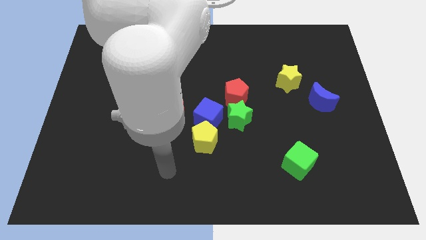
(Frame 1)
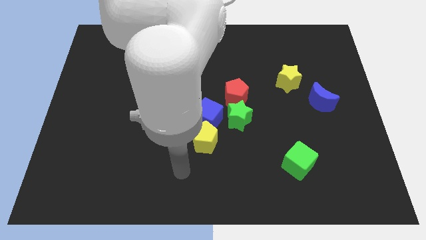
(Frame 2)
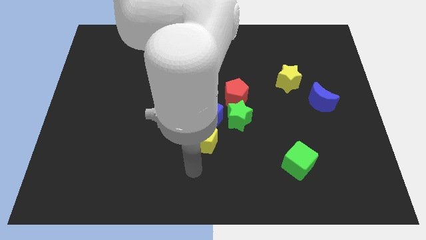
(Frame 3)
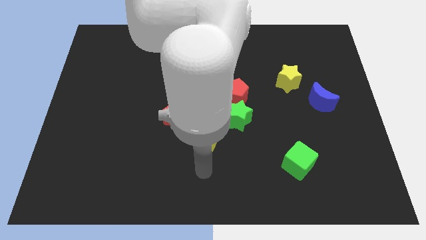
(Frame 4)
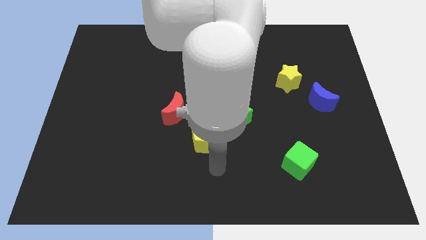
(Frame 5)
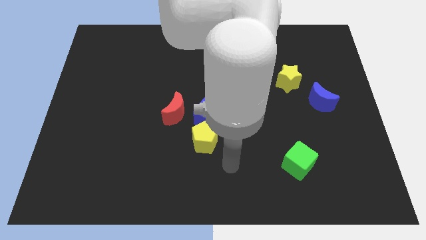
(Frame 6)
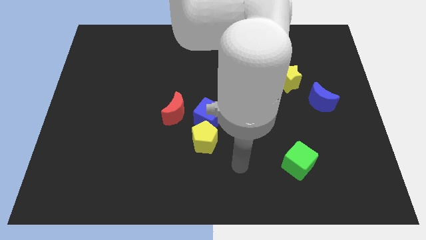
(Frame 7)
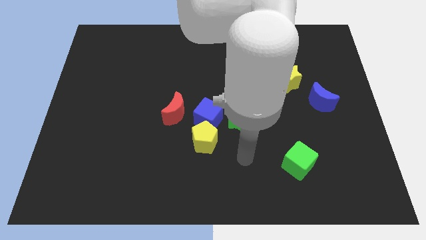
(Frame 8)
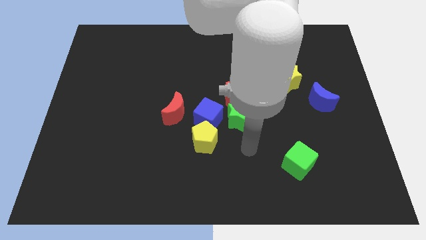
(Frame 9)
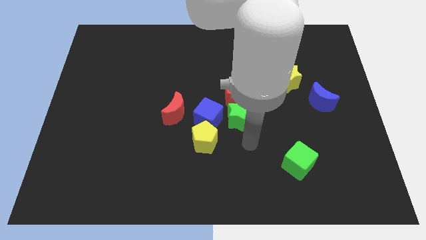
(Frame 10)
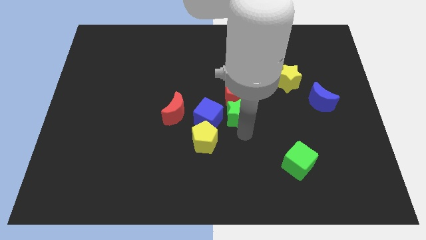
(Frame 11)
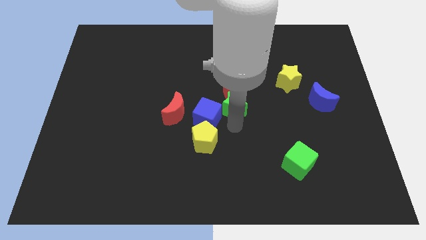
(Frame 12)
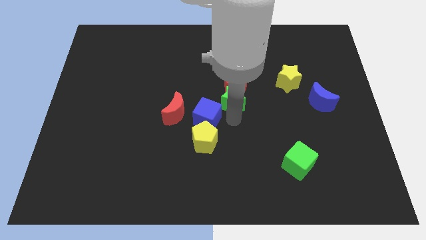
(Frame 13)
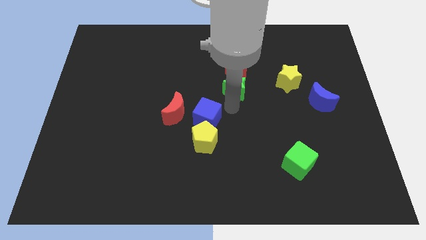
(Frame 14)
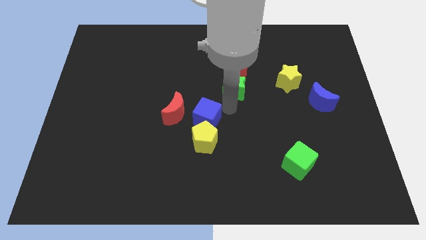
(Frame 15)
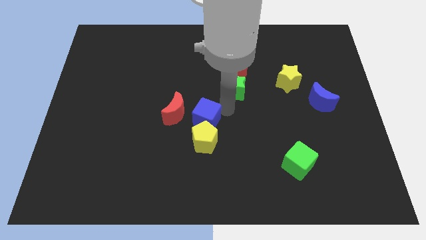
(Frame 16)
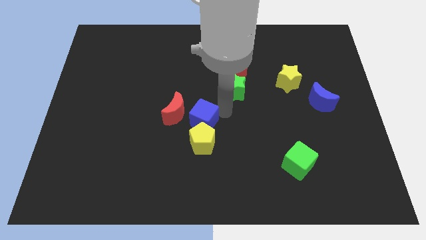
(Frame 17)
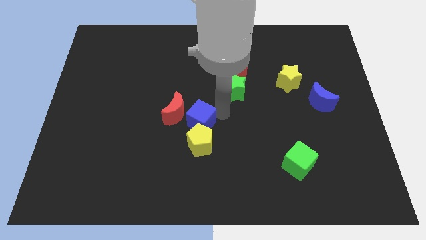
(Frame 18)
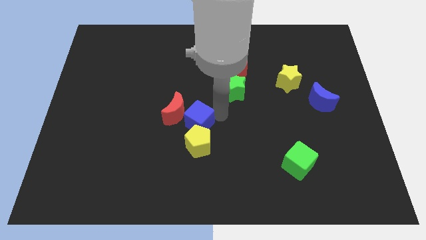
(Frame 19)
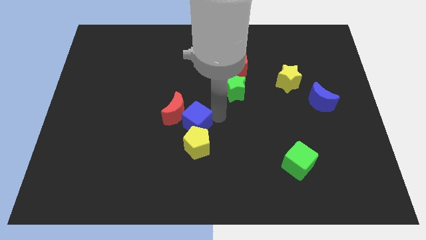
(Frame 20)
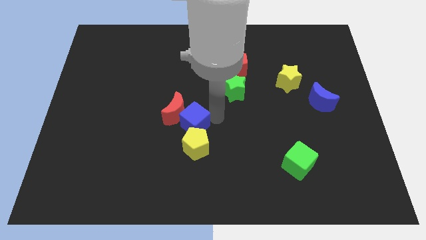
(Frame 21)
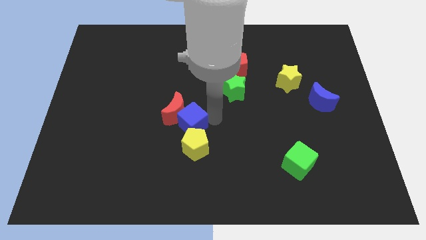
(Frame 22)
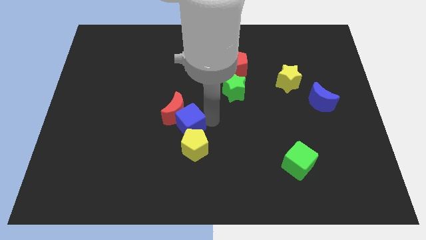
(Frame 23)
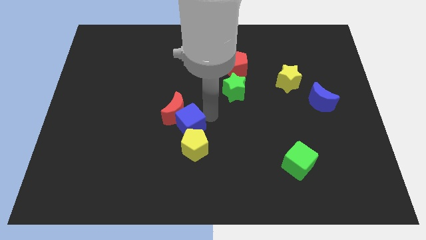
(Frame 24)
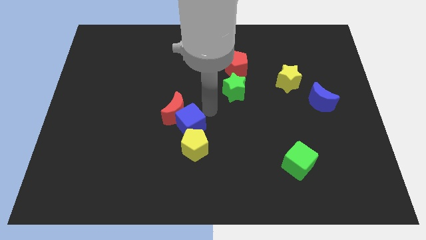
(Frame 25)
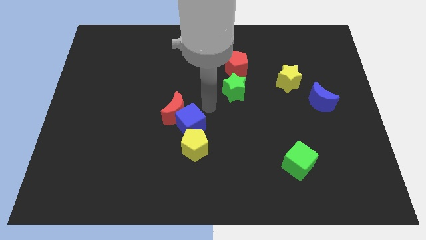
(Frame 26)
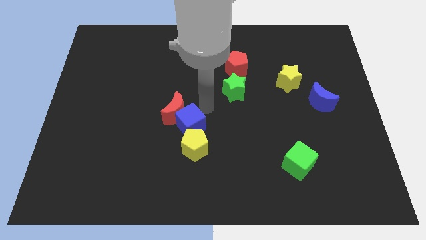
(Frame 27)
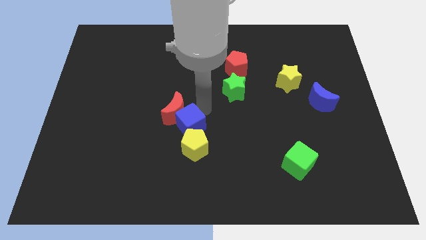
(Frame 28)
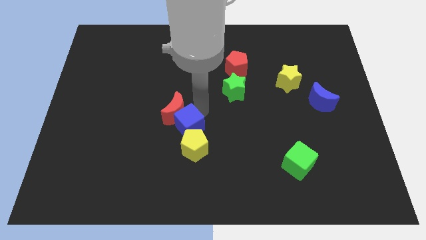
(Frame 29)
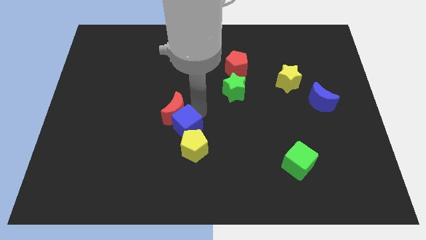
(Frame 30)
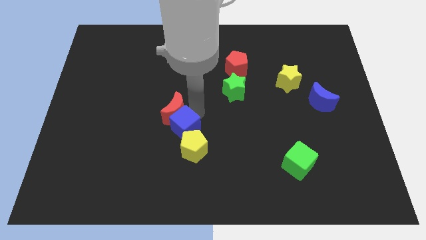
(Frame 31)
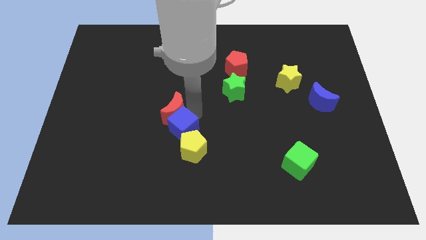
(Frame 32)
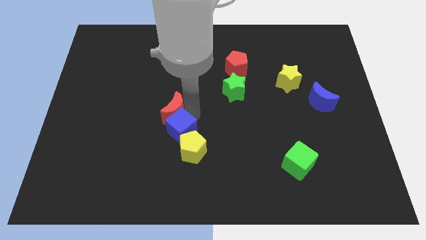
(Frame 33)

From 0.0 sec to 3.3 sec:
move the blue cube away from the group

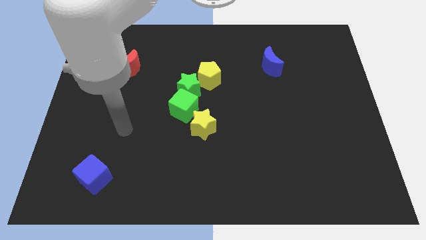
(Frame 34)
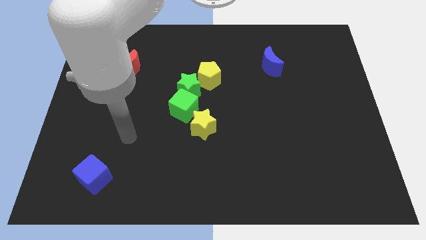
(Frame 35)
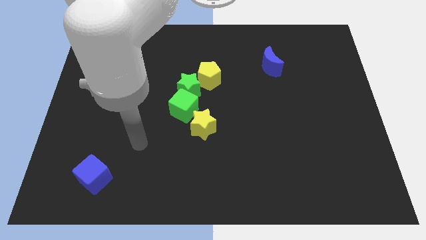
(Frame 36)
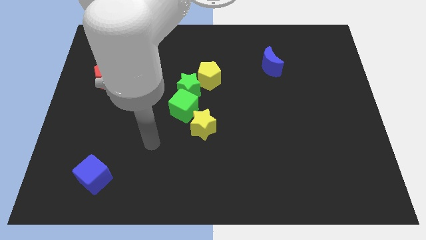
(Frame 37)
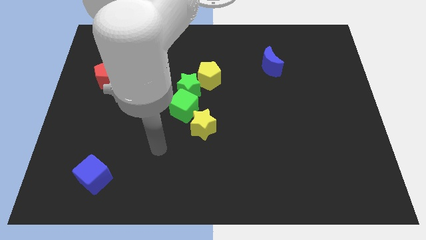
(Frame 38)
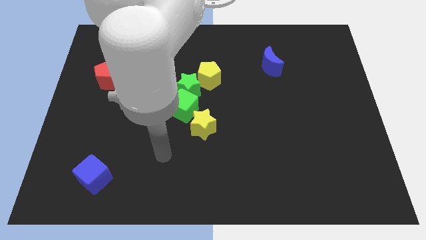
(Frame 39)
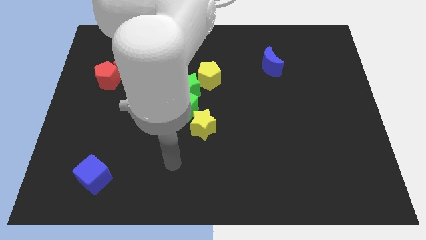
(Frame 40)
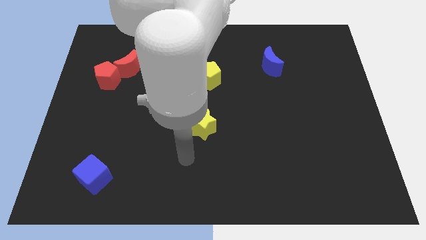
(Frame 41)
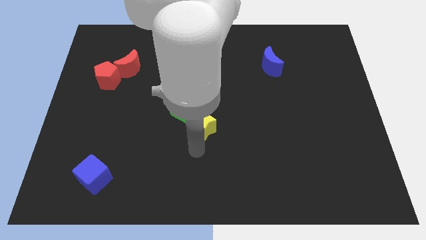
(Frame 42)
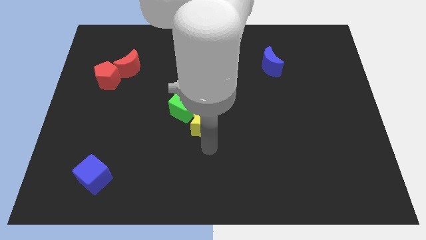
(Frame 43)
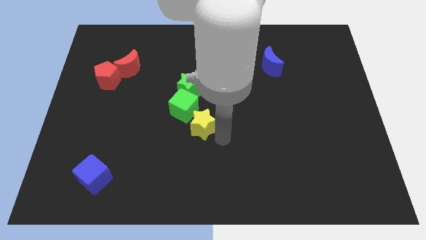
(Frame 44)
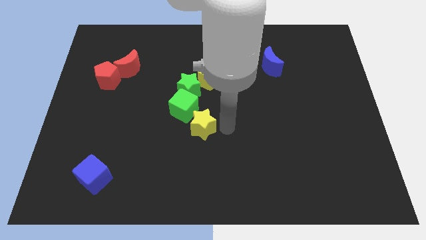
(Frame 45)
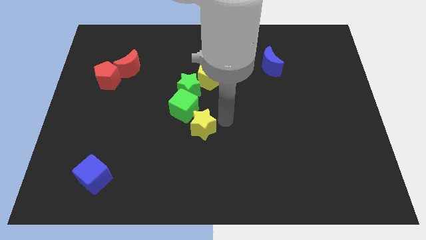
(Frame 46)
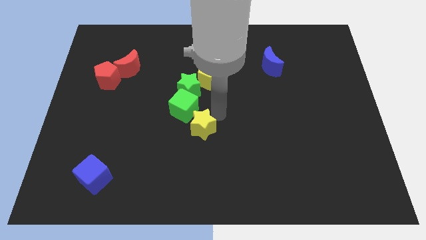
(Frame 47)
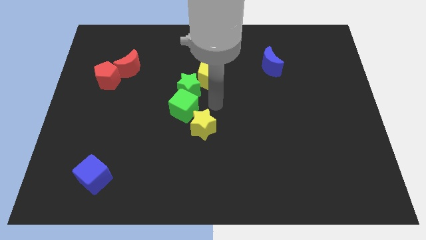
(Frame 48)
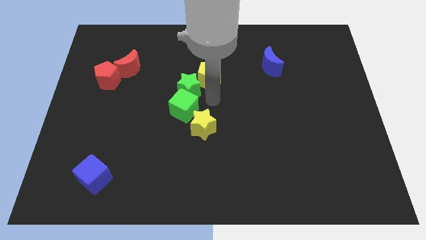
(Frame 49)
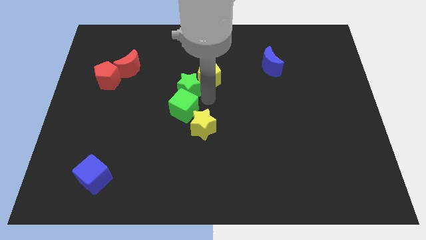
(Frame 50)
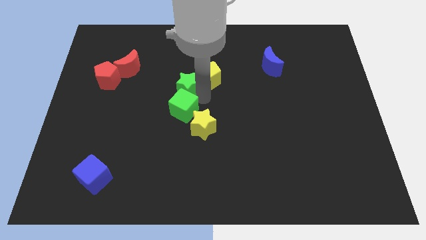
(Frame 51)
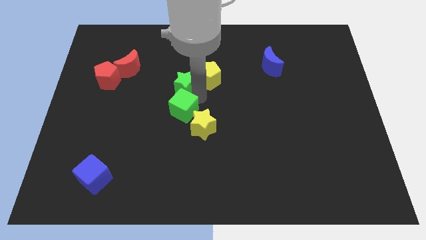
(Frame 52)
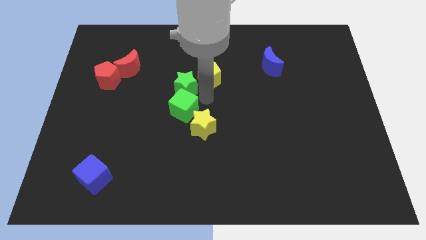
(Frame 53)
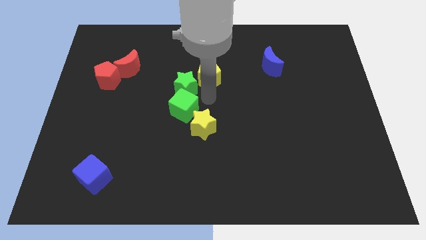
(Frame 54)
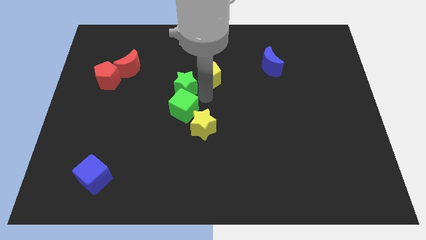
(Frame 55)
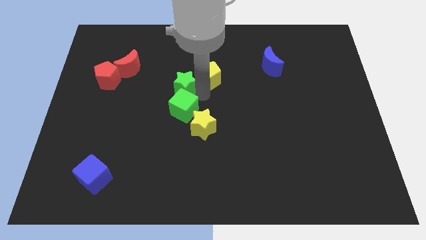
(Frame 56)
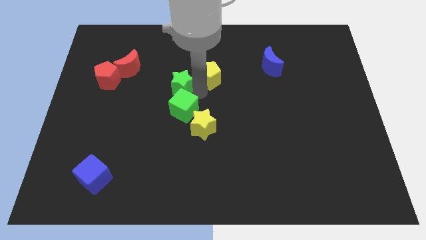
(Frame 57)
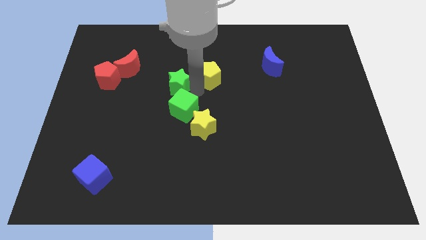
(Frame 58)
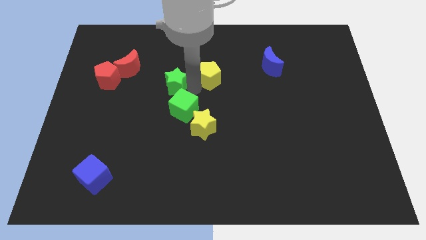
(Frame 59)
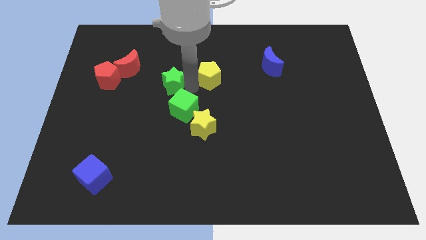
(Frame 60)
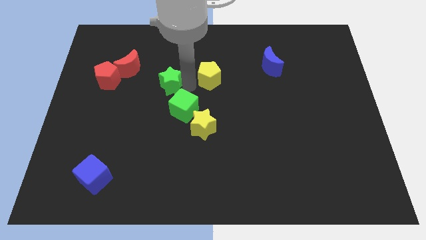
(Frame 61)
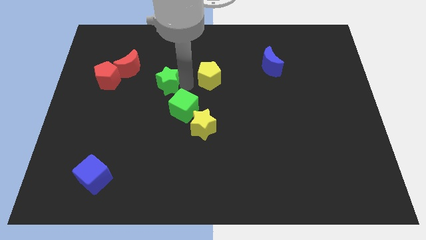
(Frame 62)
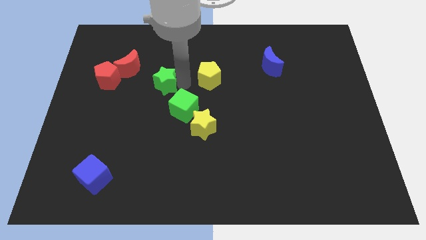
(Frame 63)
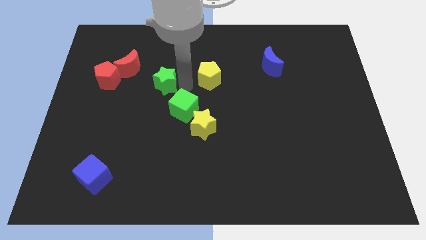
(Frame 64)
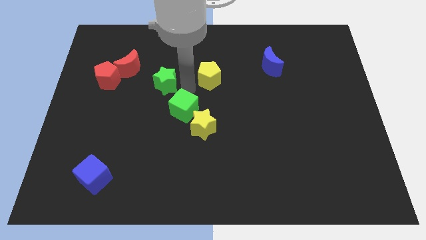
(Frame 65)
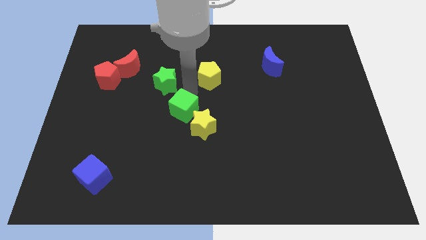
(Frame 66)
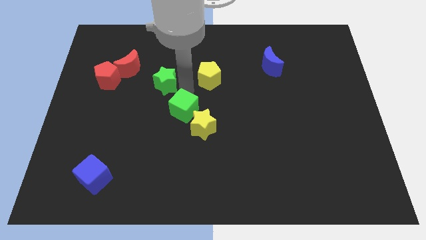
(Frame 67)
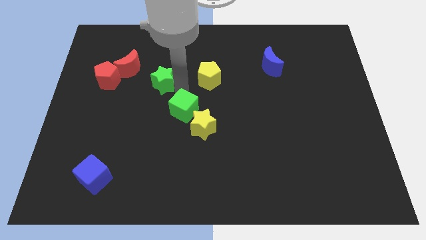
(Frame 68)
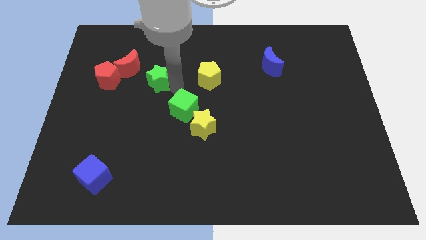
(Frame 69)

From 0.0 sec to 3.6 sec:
pull the green star apart from the green cube and yellow pentagon

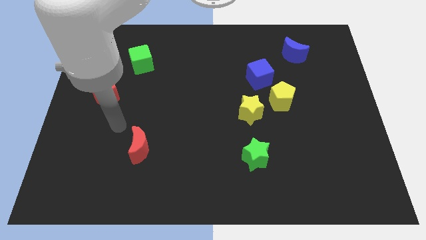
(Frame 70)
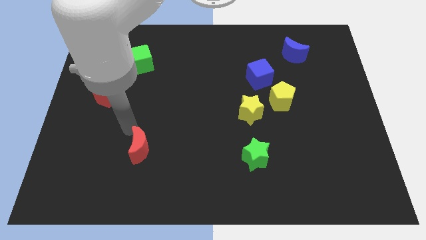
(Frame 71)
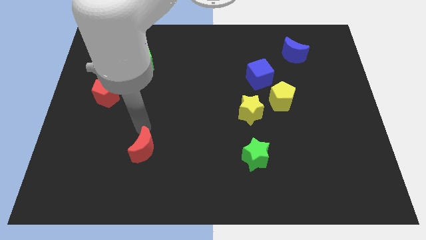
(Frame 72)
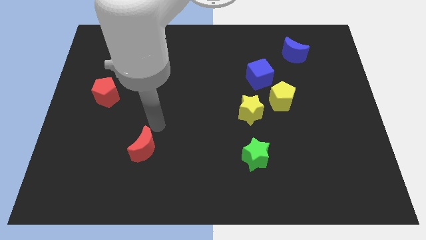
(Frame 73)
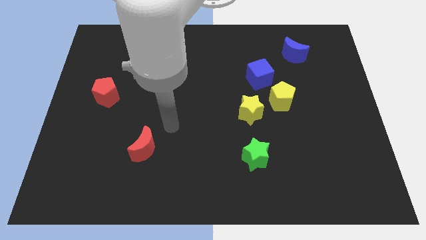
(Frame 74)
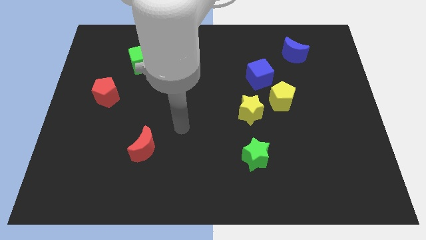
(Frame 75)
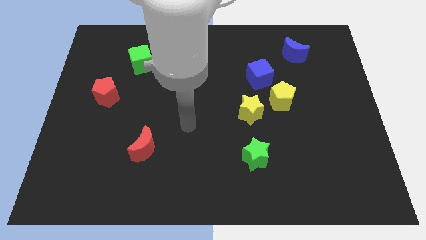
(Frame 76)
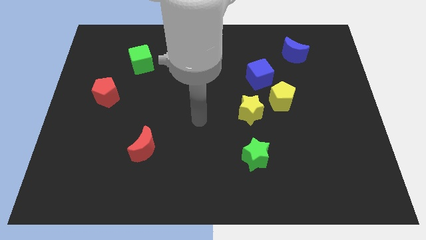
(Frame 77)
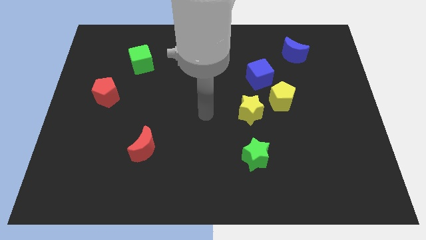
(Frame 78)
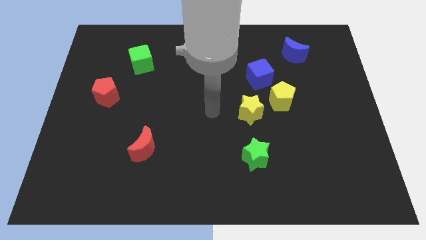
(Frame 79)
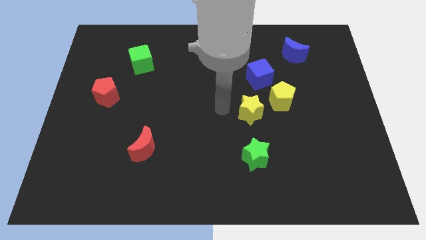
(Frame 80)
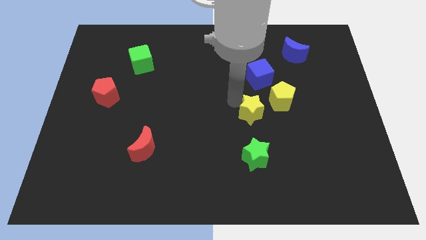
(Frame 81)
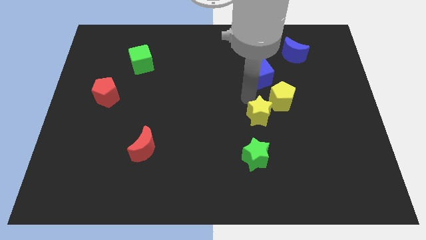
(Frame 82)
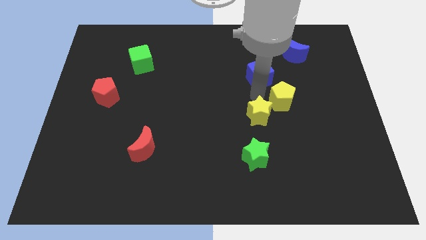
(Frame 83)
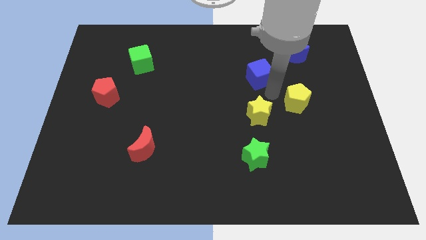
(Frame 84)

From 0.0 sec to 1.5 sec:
pull the blue cube apart from the yellow pentagon

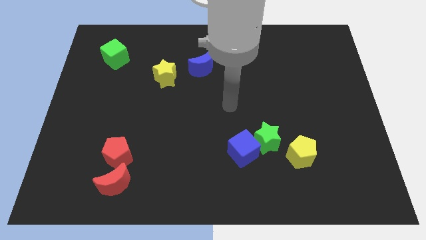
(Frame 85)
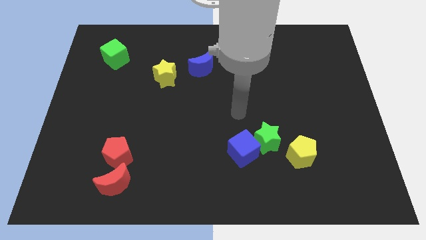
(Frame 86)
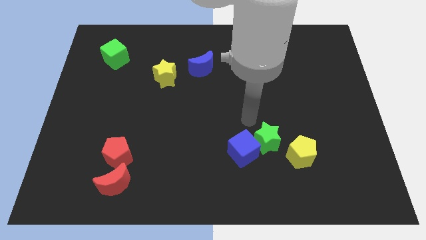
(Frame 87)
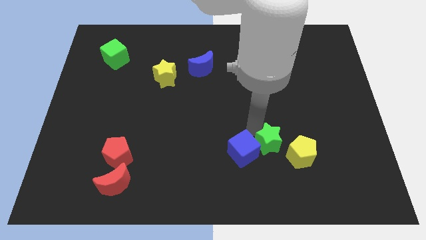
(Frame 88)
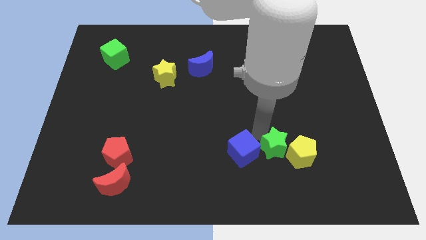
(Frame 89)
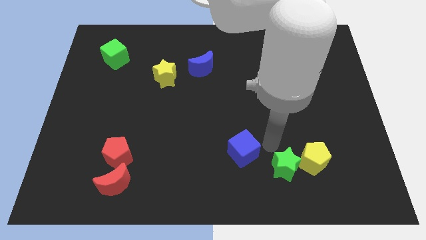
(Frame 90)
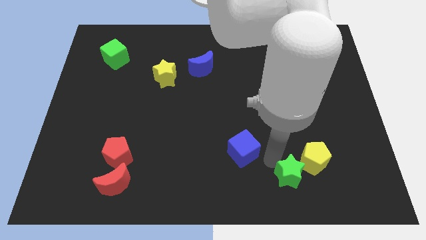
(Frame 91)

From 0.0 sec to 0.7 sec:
separate the blue cube from the green star
